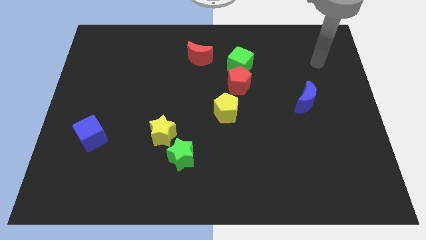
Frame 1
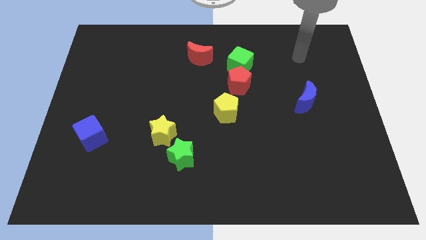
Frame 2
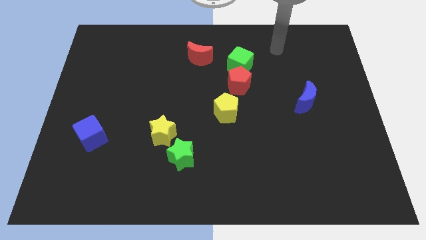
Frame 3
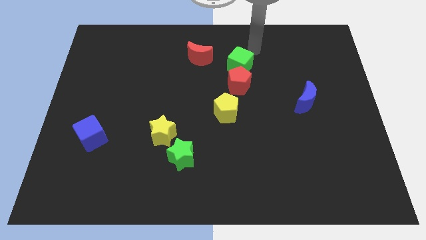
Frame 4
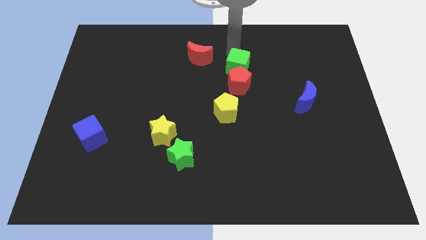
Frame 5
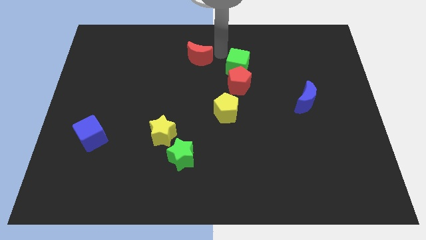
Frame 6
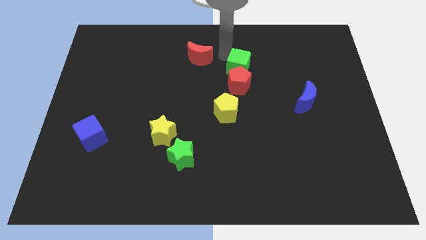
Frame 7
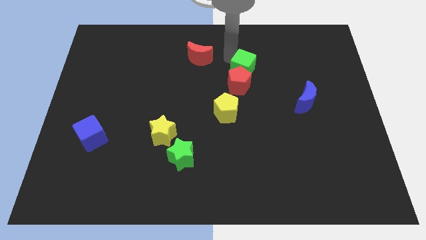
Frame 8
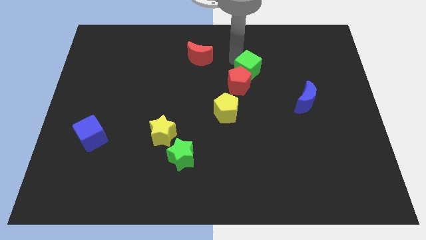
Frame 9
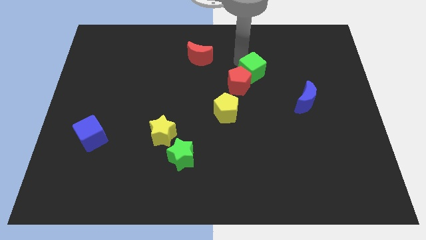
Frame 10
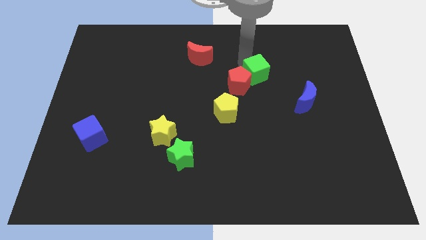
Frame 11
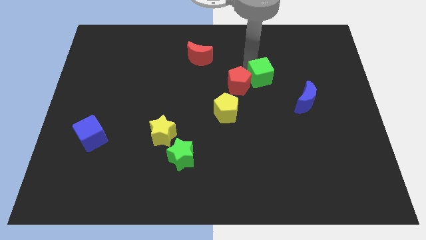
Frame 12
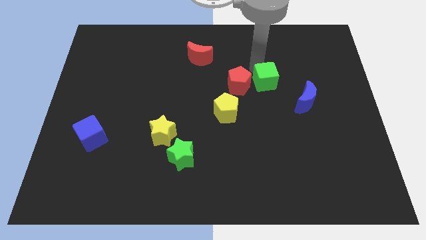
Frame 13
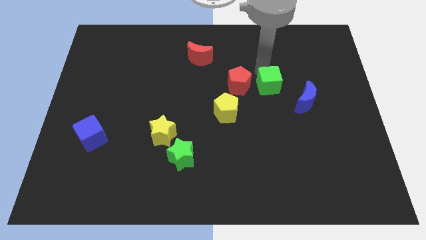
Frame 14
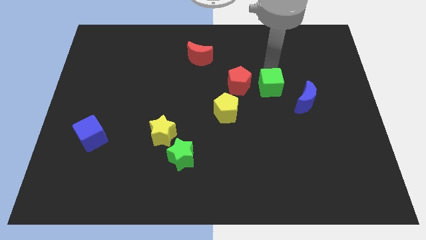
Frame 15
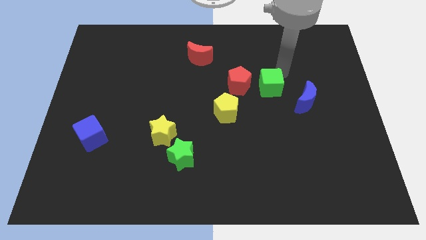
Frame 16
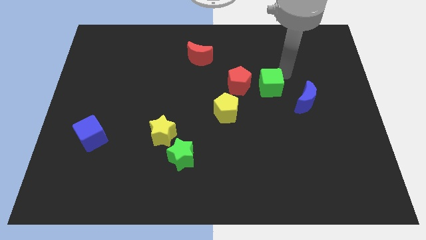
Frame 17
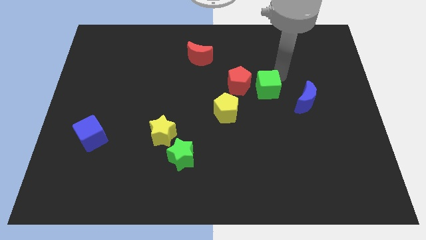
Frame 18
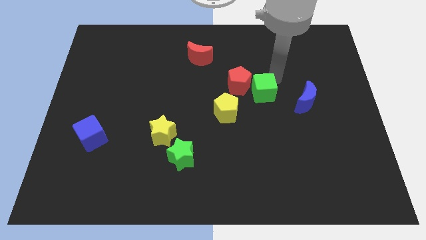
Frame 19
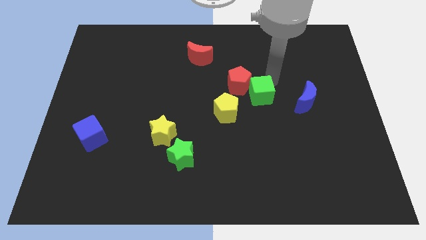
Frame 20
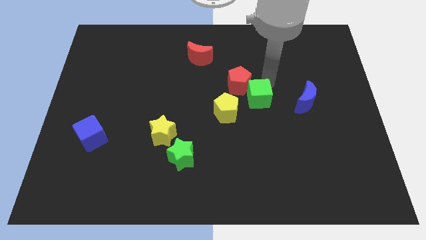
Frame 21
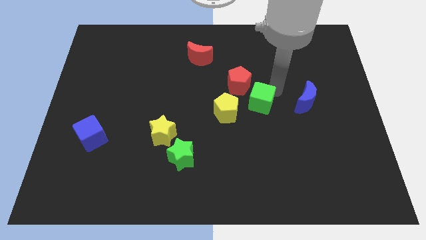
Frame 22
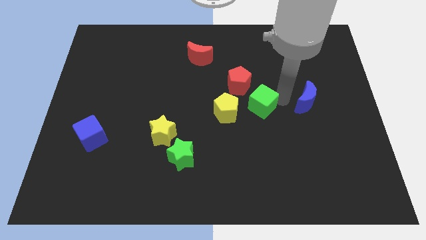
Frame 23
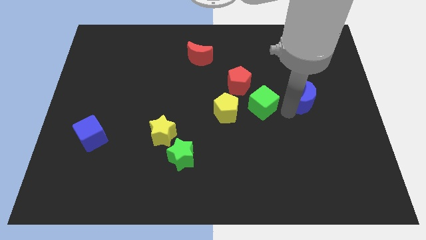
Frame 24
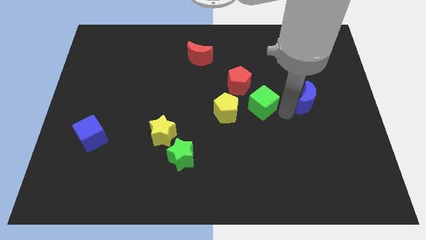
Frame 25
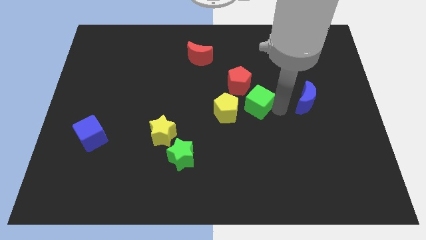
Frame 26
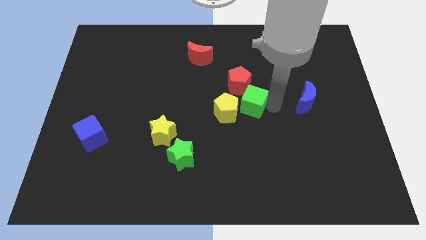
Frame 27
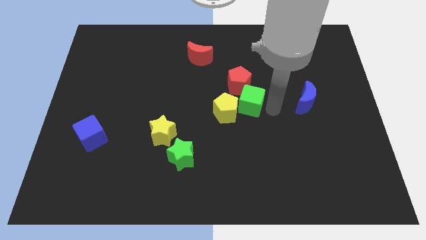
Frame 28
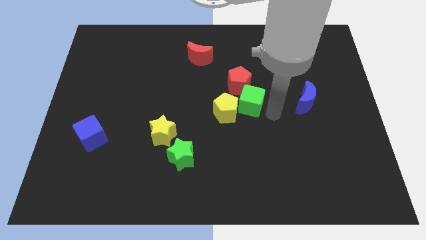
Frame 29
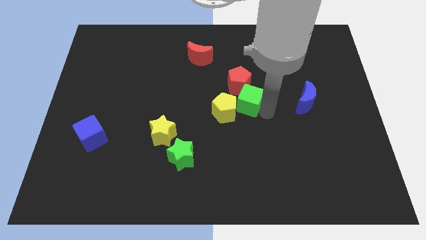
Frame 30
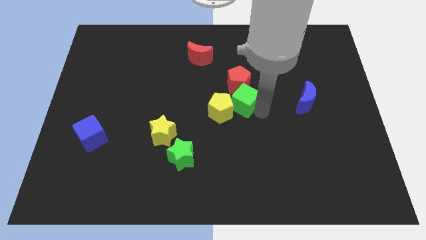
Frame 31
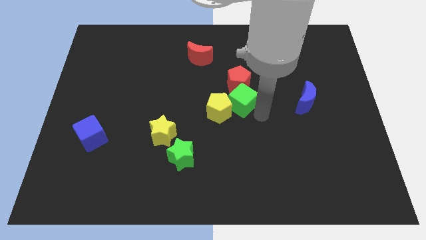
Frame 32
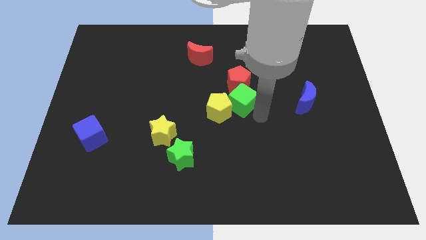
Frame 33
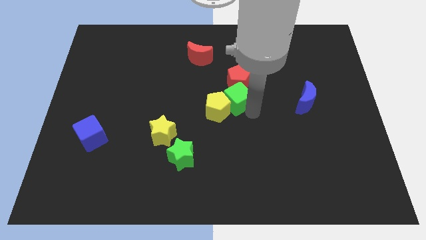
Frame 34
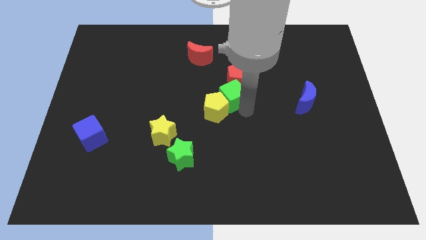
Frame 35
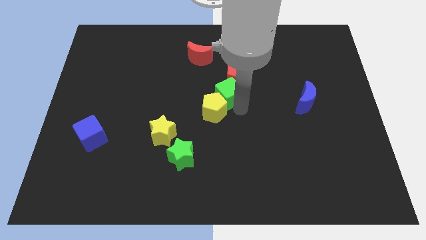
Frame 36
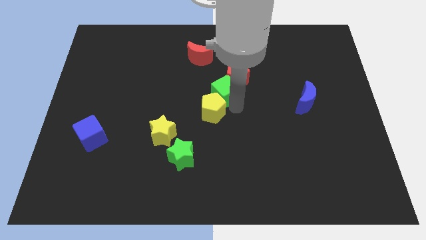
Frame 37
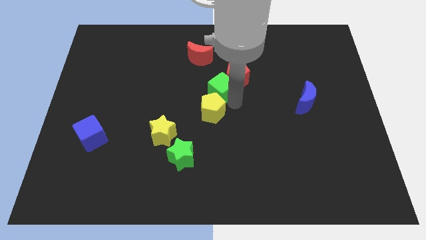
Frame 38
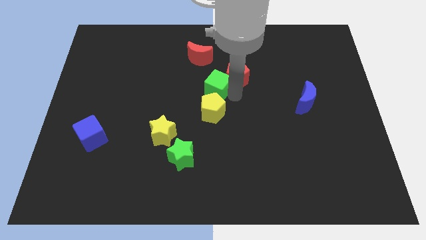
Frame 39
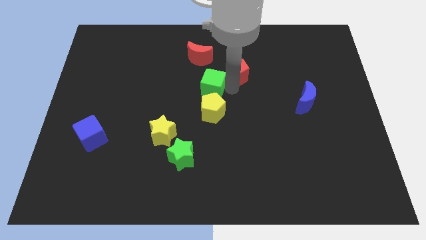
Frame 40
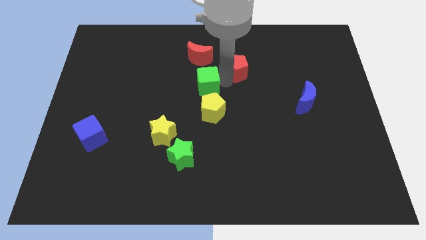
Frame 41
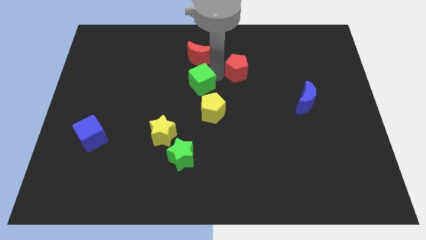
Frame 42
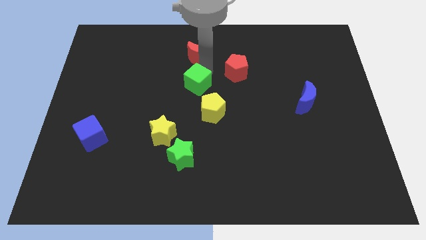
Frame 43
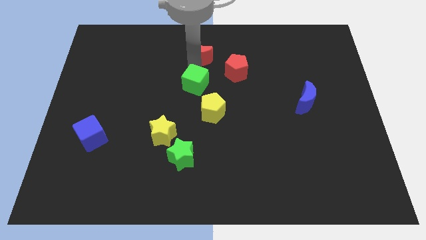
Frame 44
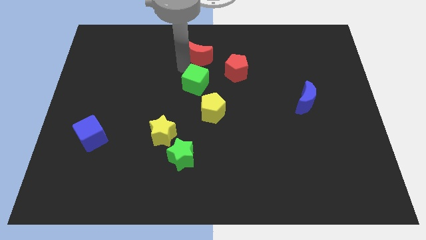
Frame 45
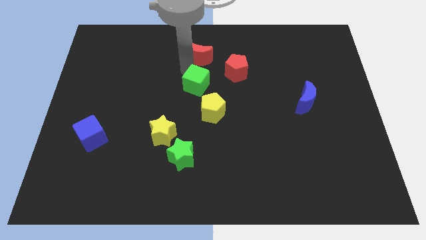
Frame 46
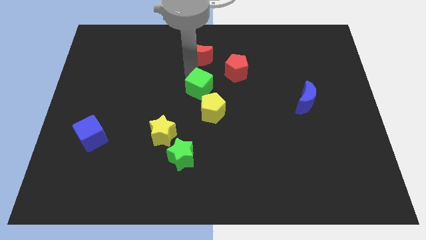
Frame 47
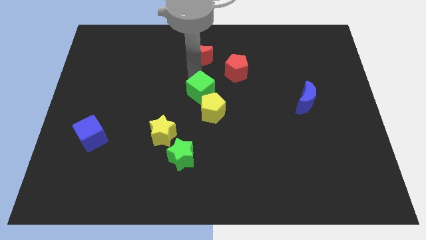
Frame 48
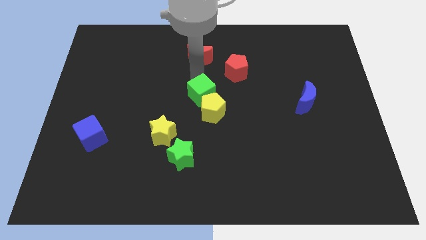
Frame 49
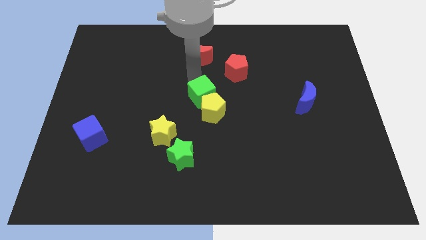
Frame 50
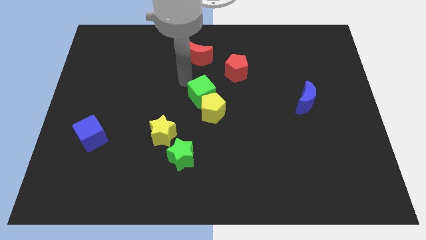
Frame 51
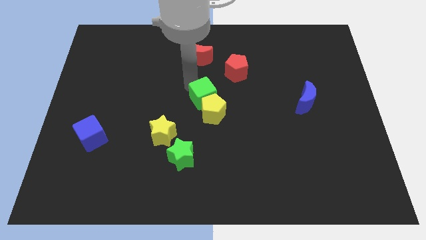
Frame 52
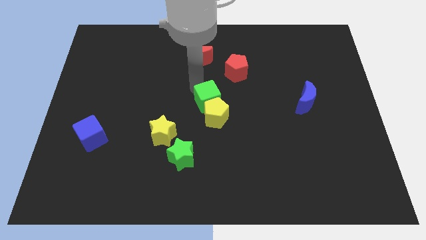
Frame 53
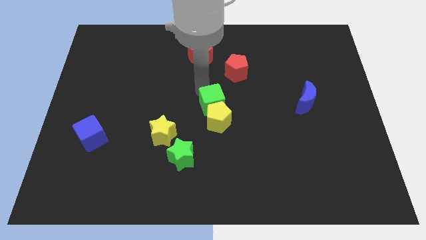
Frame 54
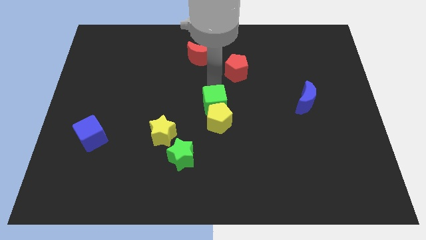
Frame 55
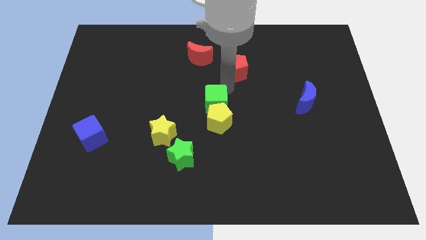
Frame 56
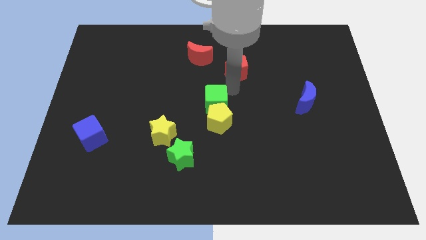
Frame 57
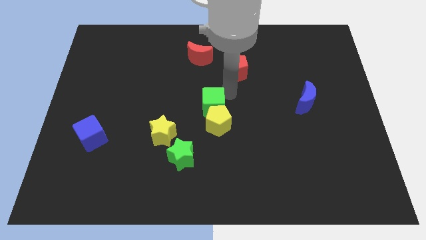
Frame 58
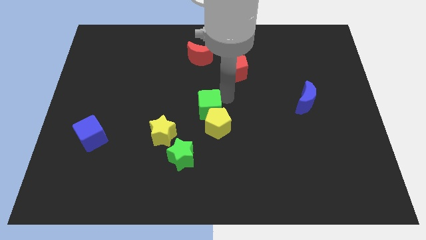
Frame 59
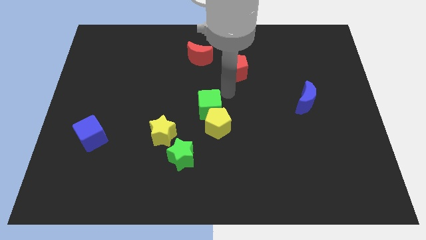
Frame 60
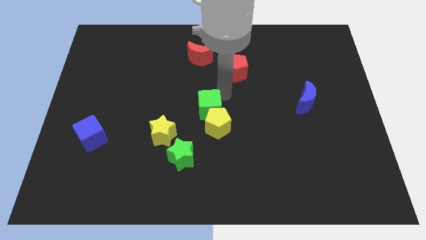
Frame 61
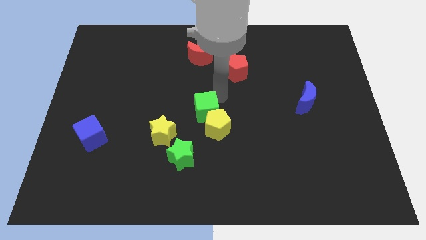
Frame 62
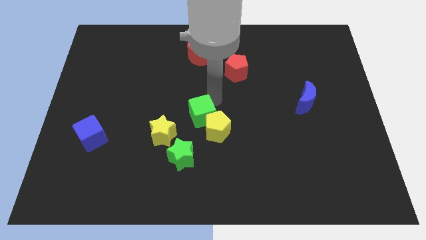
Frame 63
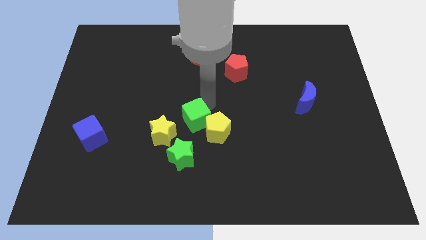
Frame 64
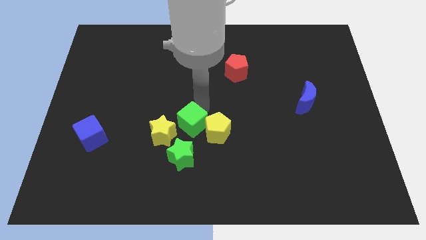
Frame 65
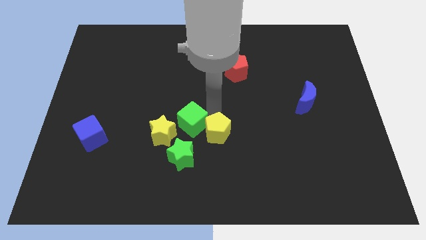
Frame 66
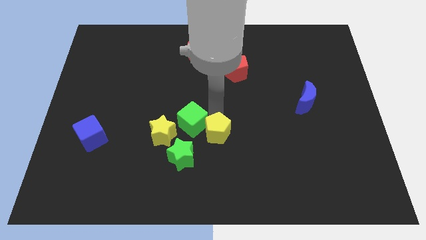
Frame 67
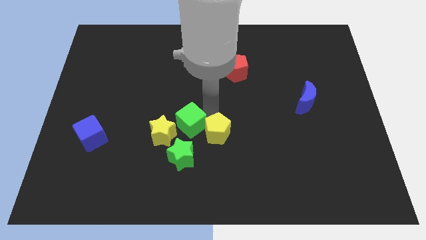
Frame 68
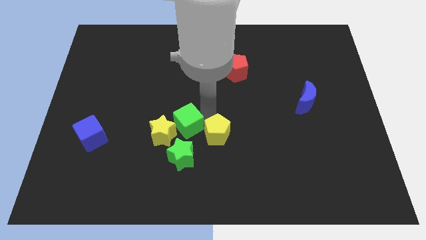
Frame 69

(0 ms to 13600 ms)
slide the green cube towards the yellow star
